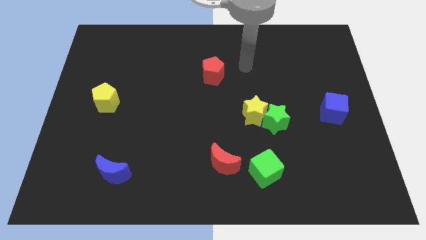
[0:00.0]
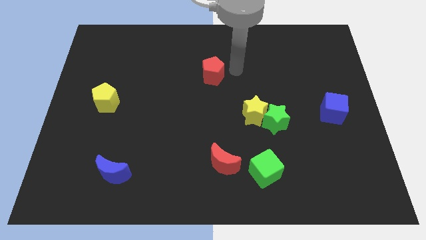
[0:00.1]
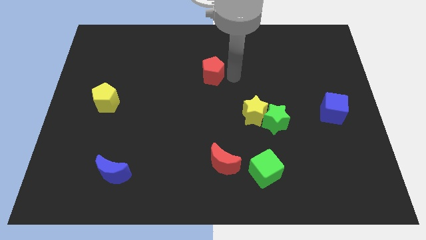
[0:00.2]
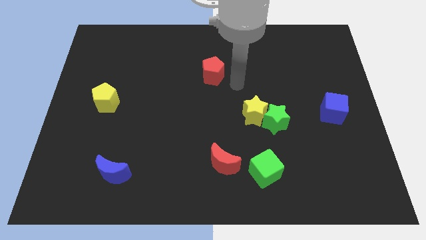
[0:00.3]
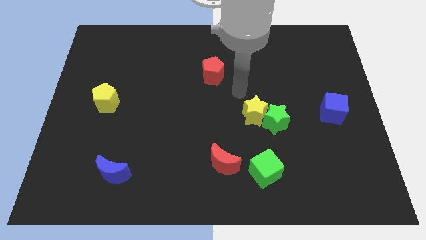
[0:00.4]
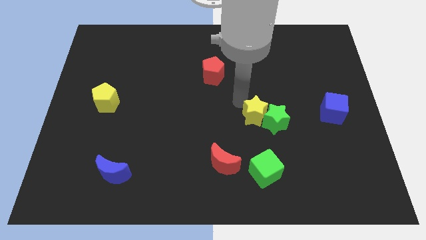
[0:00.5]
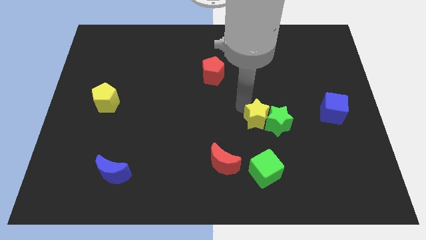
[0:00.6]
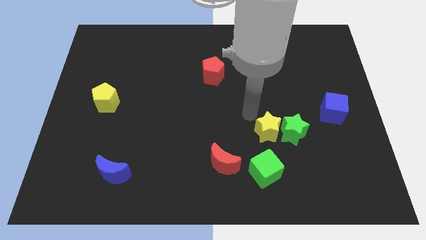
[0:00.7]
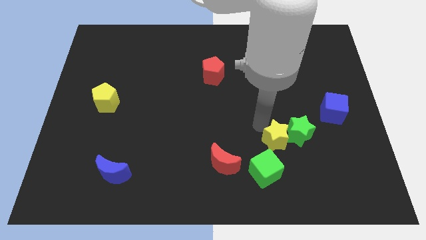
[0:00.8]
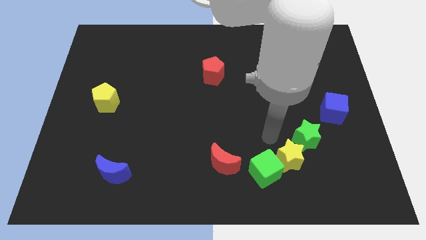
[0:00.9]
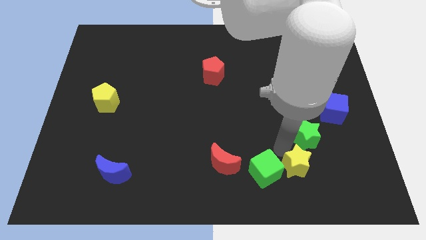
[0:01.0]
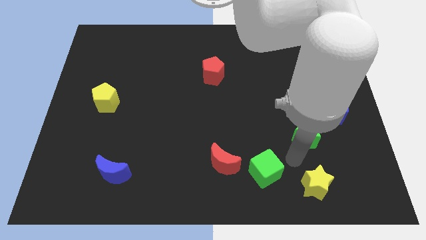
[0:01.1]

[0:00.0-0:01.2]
separate the green star from the yellow star

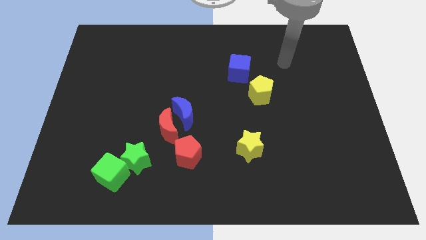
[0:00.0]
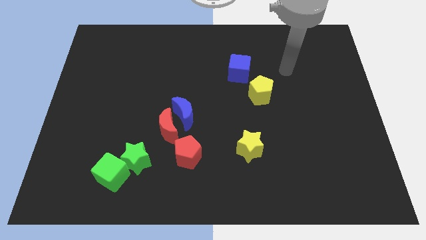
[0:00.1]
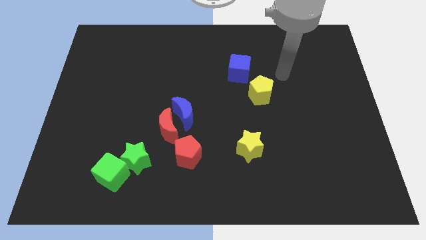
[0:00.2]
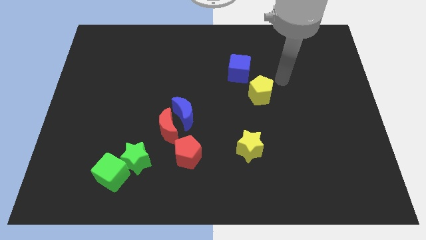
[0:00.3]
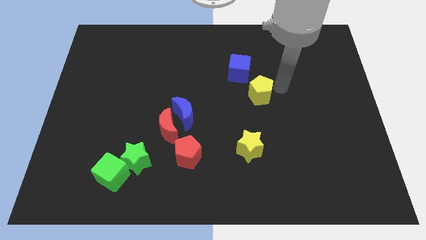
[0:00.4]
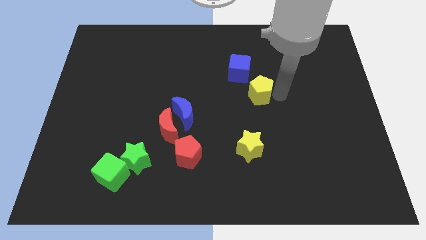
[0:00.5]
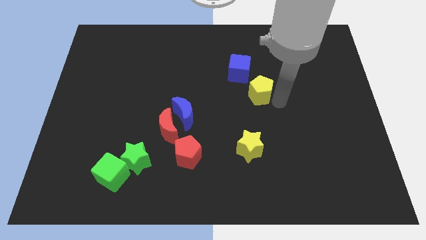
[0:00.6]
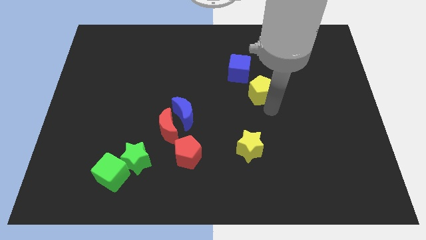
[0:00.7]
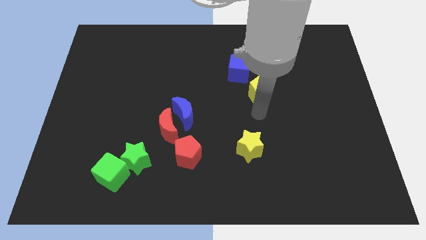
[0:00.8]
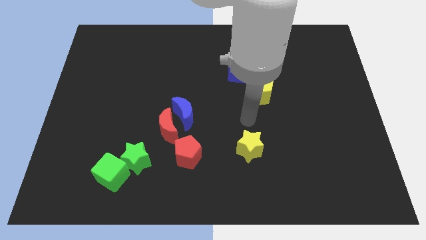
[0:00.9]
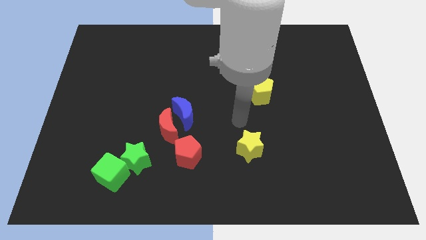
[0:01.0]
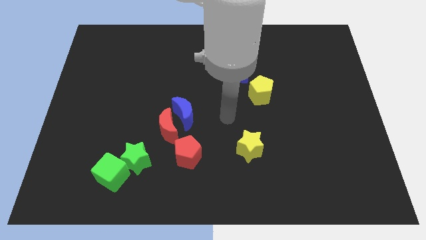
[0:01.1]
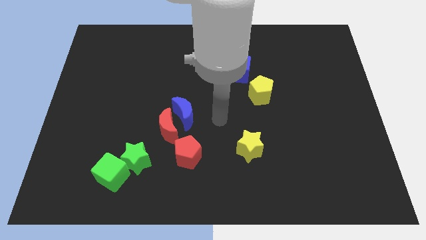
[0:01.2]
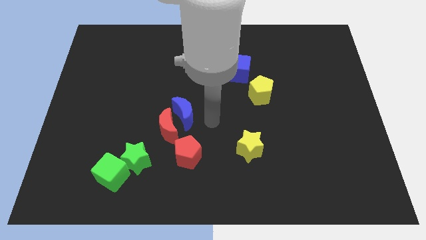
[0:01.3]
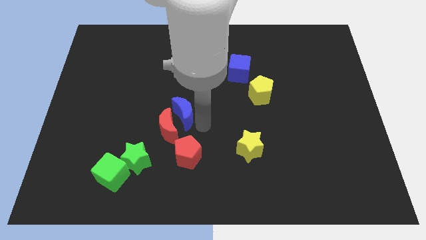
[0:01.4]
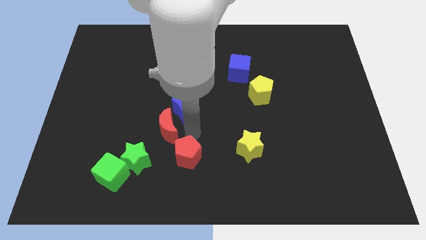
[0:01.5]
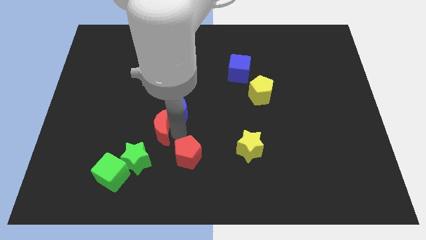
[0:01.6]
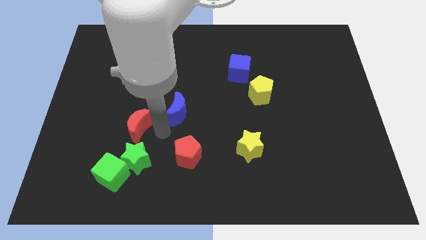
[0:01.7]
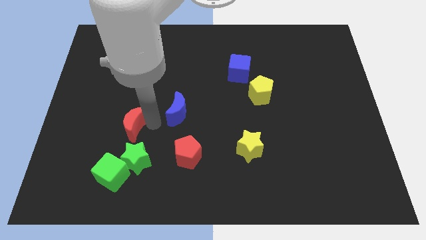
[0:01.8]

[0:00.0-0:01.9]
move the blue moon away from the red moon

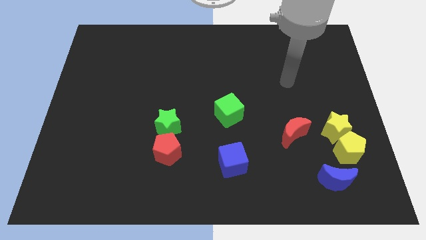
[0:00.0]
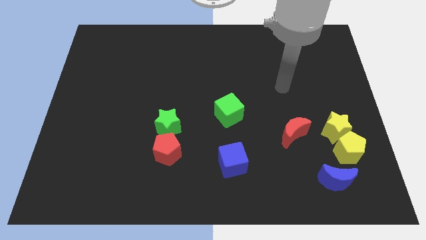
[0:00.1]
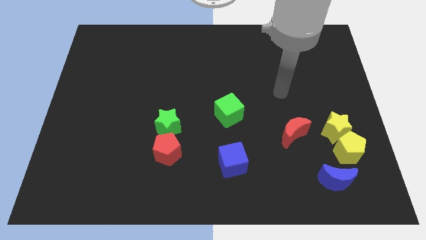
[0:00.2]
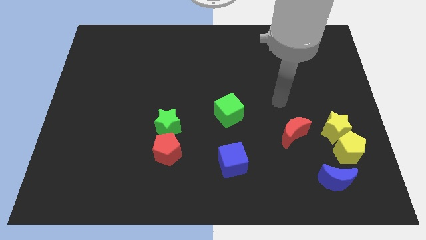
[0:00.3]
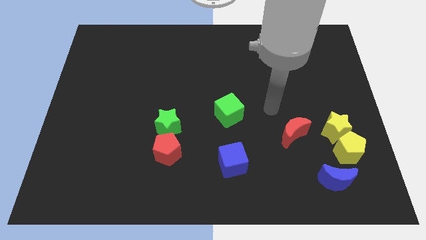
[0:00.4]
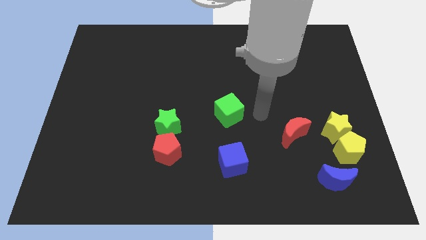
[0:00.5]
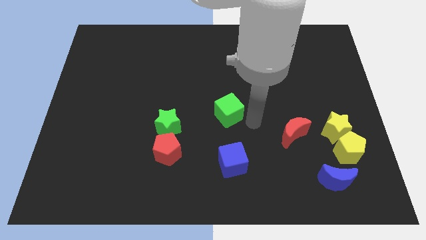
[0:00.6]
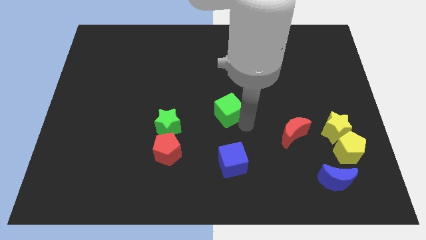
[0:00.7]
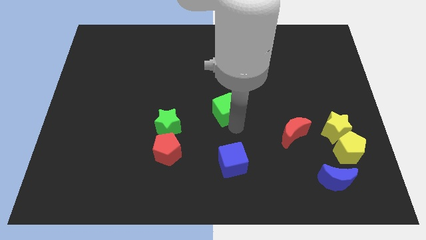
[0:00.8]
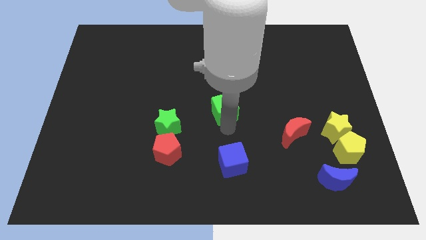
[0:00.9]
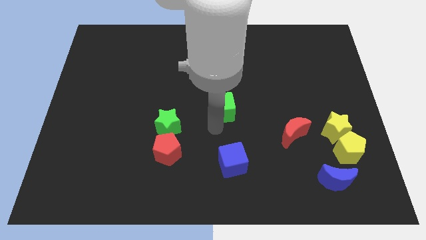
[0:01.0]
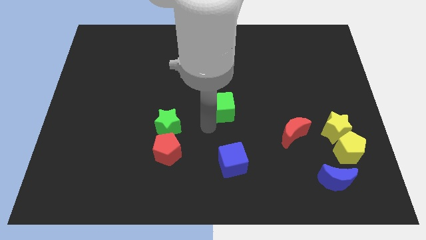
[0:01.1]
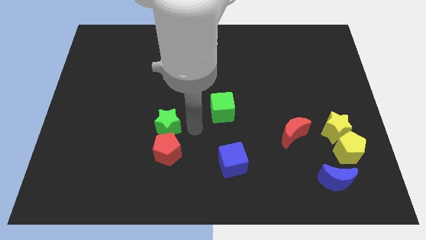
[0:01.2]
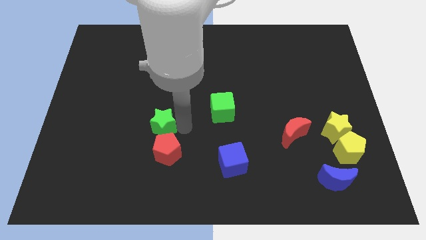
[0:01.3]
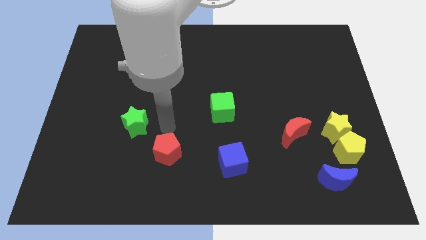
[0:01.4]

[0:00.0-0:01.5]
separate the red pentagon from the green star

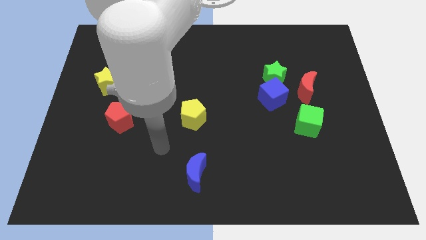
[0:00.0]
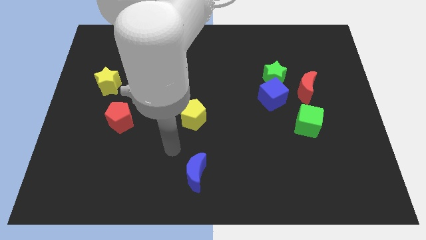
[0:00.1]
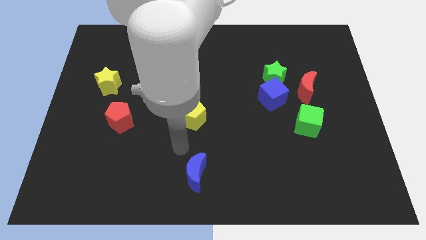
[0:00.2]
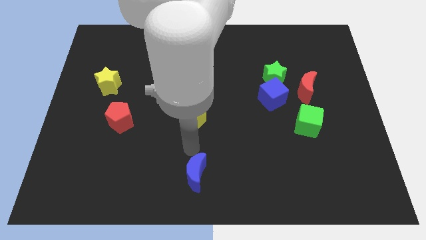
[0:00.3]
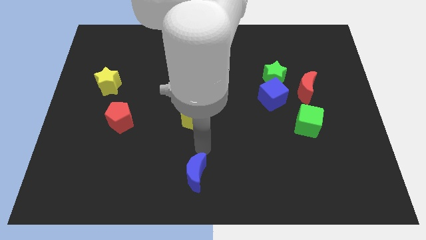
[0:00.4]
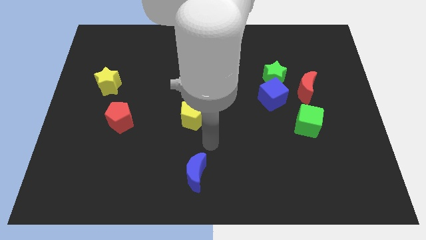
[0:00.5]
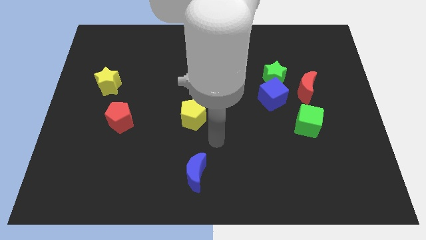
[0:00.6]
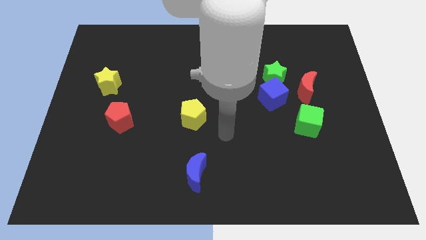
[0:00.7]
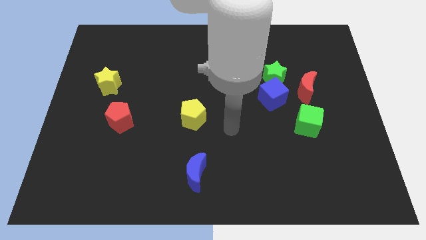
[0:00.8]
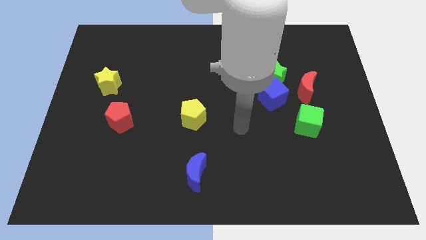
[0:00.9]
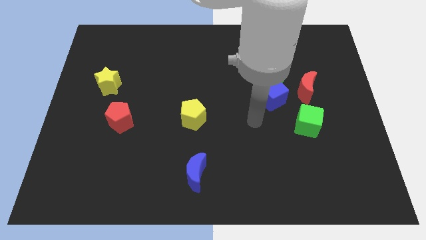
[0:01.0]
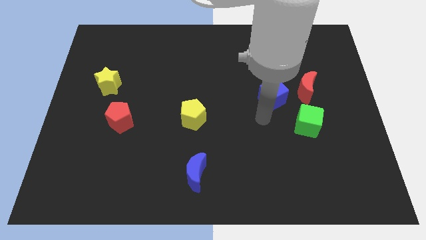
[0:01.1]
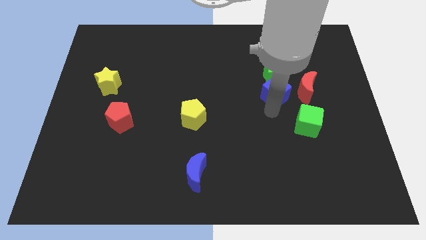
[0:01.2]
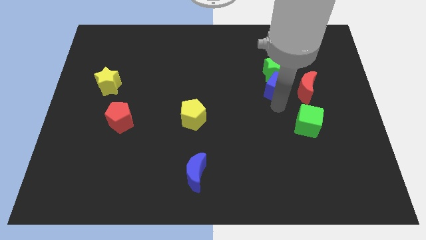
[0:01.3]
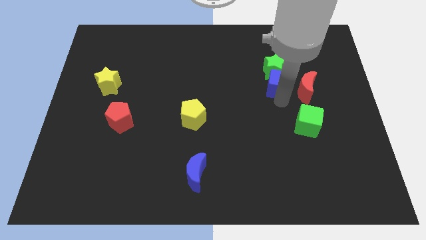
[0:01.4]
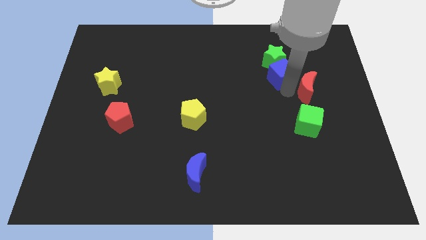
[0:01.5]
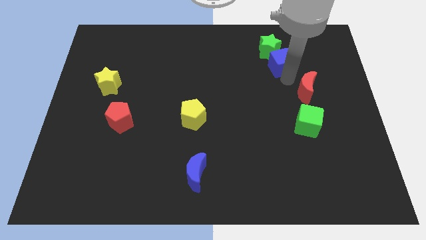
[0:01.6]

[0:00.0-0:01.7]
move the green star away from the blue cube and red moon

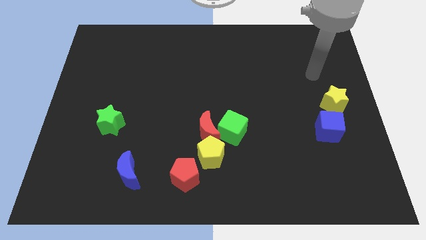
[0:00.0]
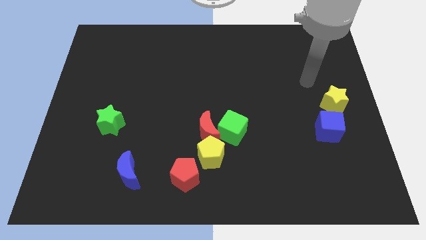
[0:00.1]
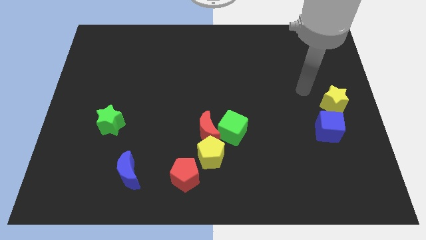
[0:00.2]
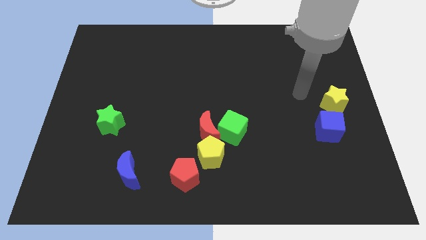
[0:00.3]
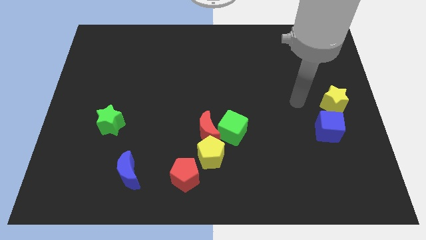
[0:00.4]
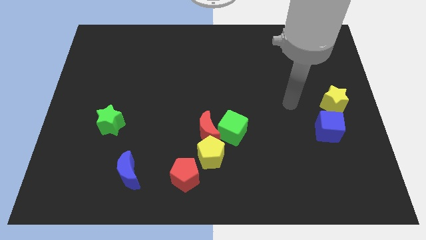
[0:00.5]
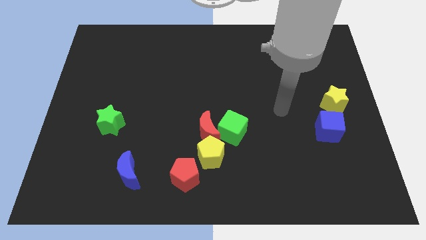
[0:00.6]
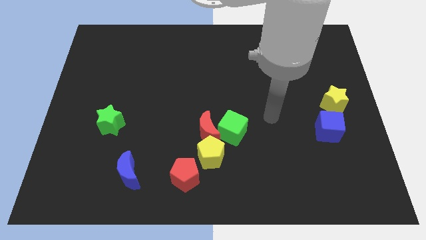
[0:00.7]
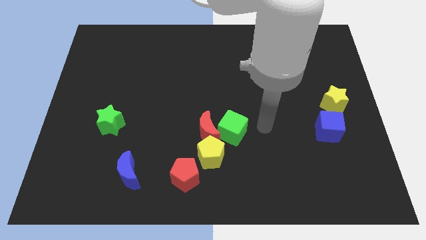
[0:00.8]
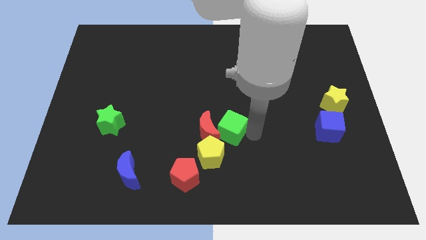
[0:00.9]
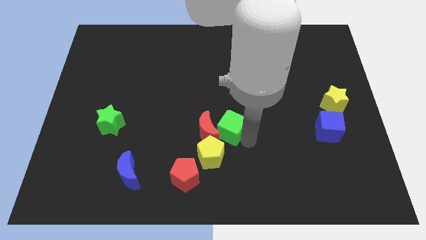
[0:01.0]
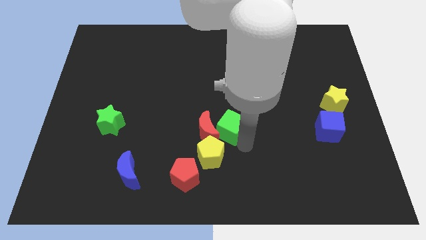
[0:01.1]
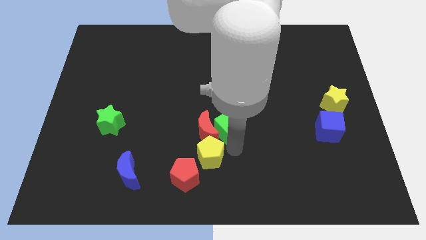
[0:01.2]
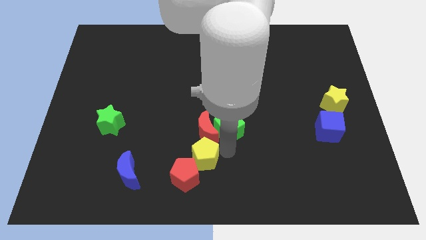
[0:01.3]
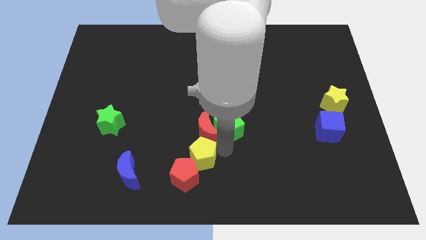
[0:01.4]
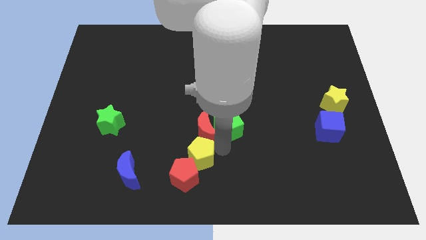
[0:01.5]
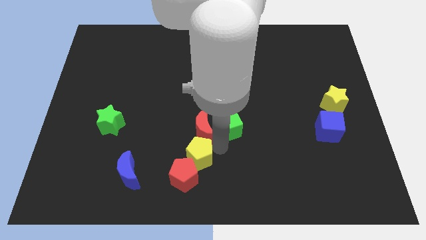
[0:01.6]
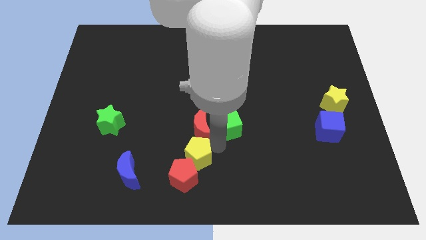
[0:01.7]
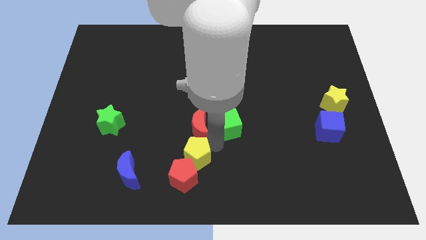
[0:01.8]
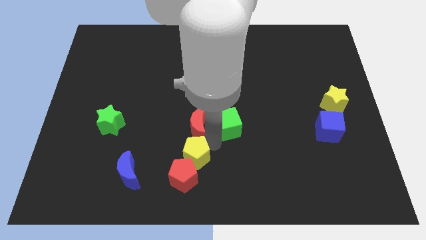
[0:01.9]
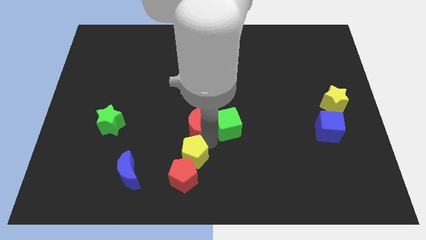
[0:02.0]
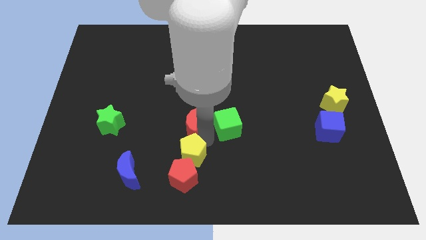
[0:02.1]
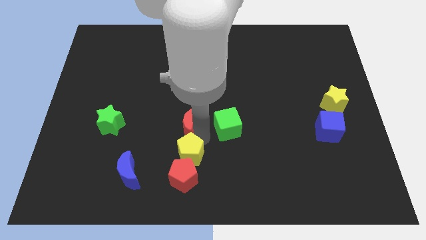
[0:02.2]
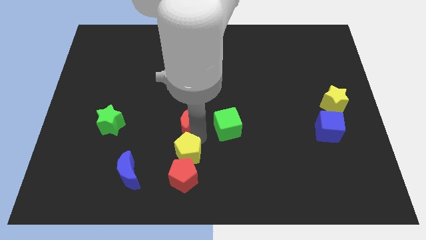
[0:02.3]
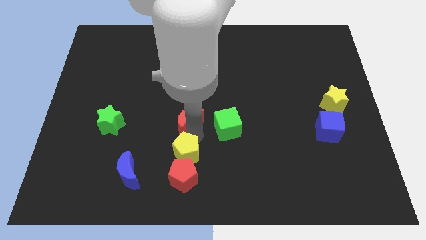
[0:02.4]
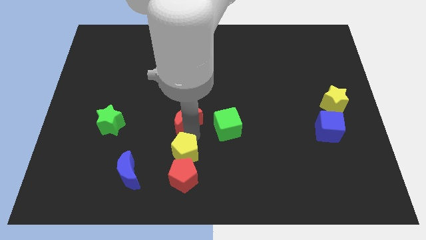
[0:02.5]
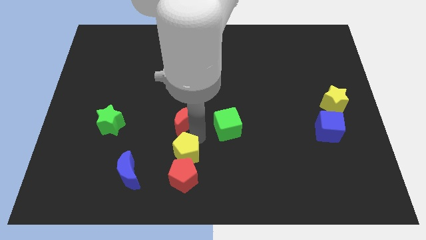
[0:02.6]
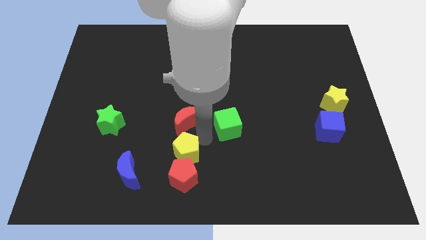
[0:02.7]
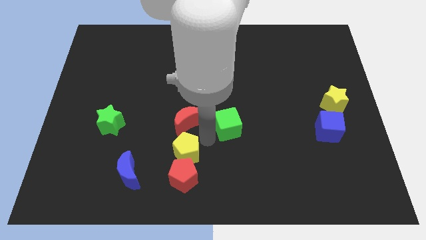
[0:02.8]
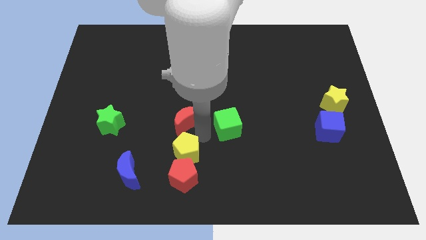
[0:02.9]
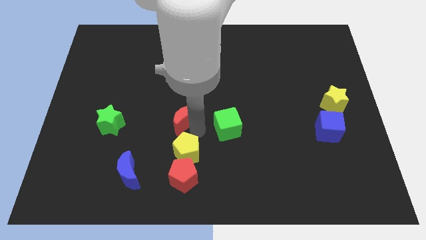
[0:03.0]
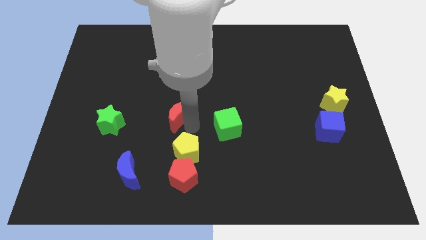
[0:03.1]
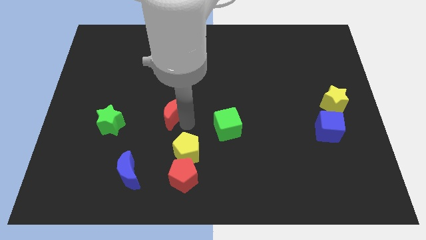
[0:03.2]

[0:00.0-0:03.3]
separate the red moon from the green cube and yellow pentagon
